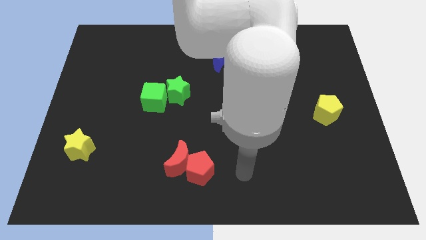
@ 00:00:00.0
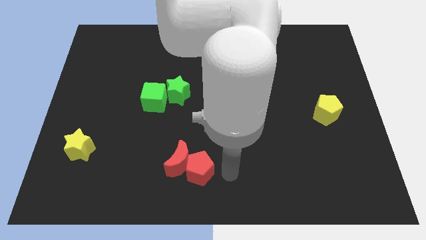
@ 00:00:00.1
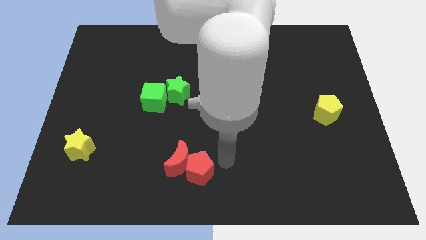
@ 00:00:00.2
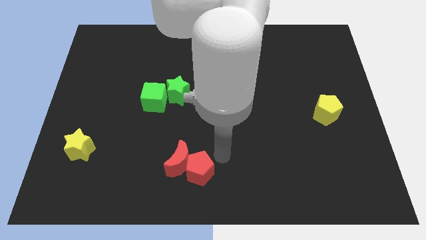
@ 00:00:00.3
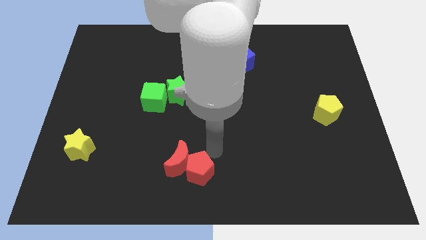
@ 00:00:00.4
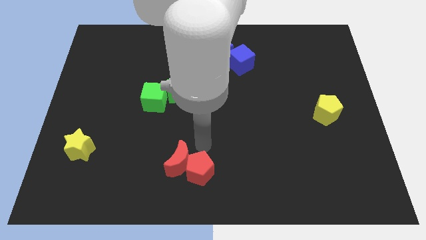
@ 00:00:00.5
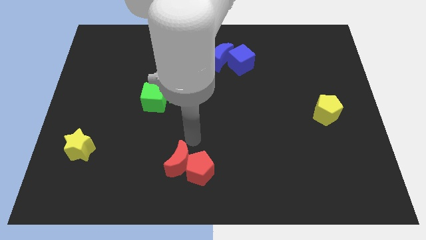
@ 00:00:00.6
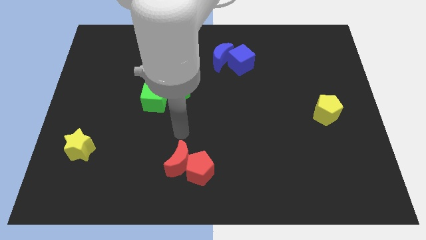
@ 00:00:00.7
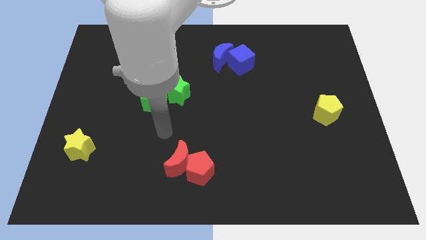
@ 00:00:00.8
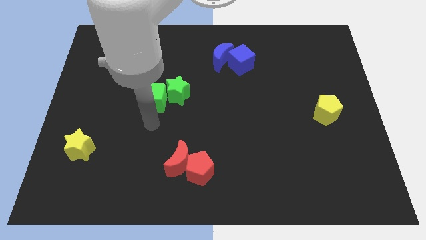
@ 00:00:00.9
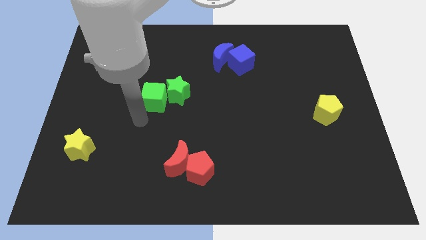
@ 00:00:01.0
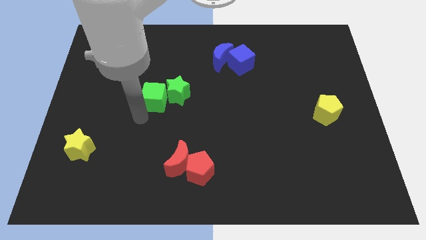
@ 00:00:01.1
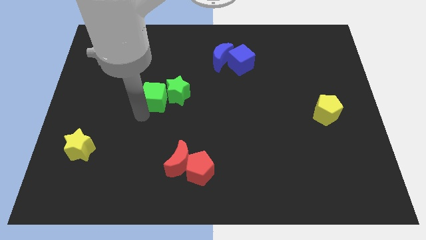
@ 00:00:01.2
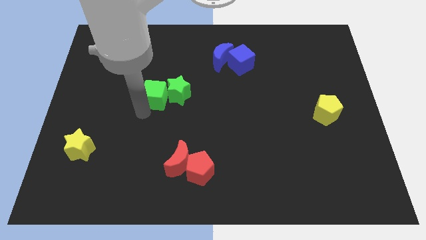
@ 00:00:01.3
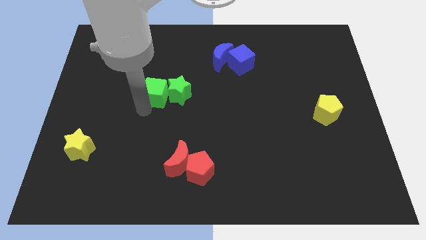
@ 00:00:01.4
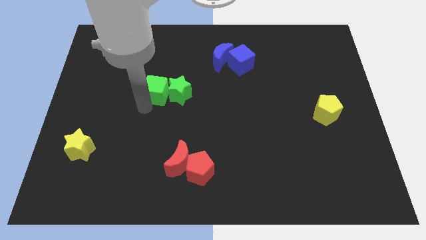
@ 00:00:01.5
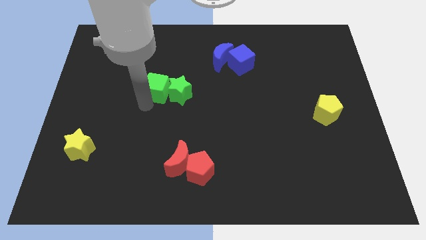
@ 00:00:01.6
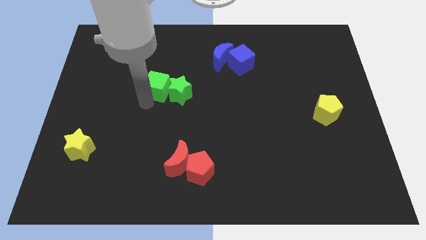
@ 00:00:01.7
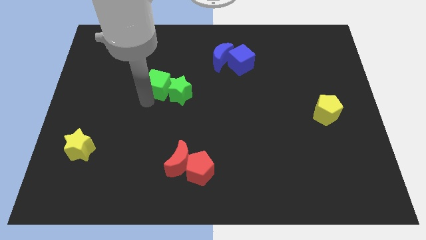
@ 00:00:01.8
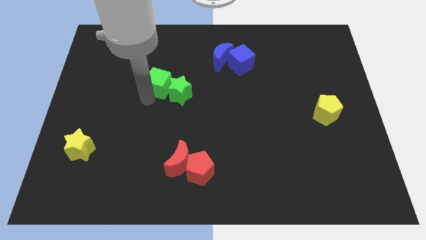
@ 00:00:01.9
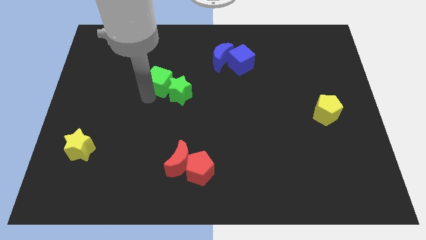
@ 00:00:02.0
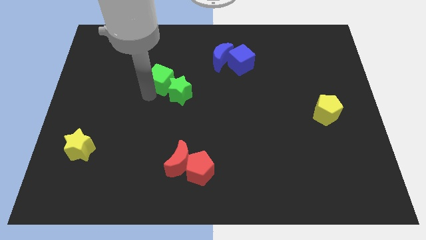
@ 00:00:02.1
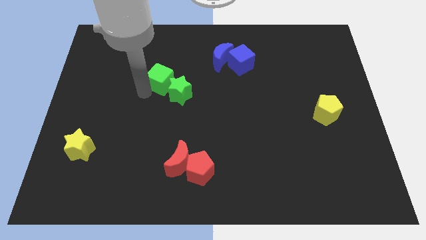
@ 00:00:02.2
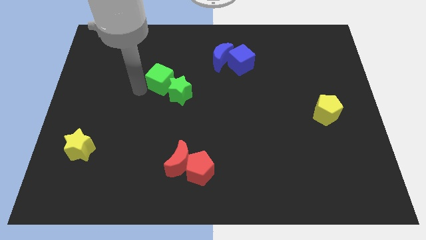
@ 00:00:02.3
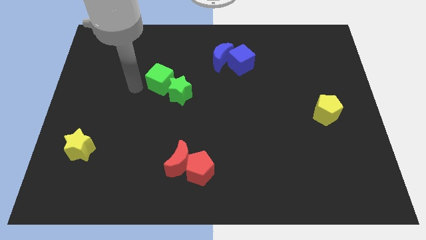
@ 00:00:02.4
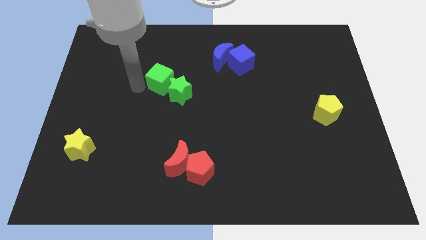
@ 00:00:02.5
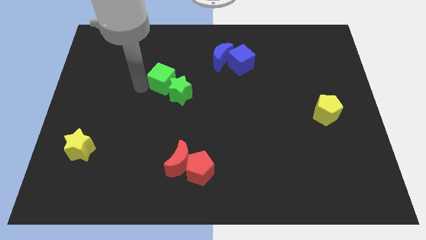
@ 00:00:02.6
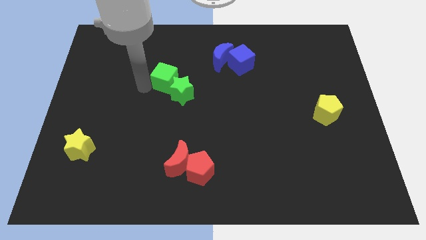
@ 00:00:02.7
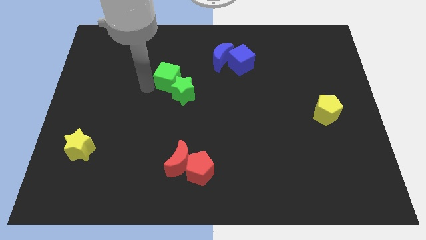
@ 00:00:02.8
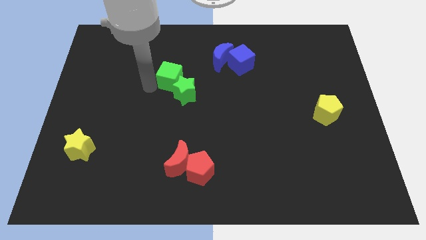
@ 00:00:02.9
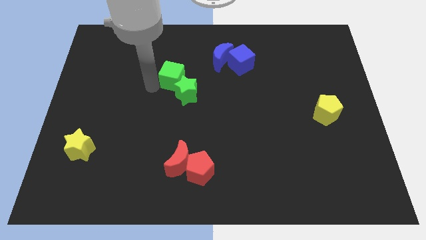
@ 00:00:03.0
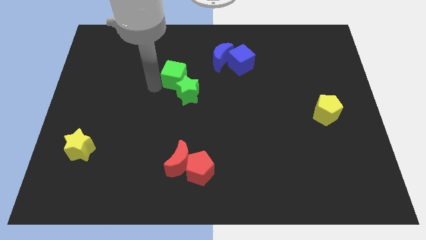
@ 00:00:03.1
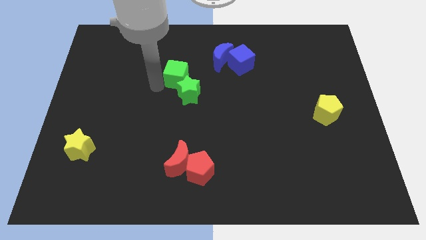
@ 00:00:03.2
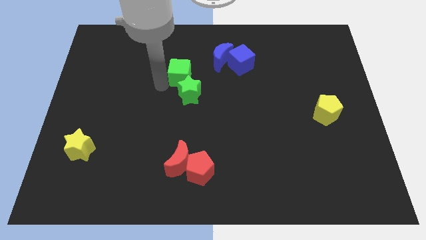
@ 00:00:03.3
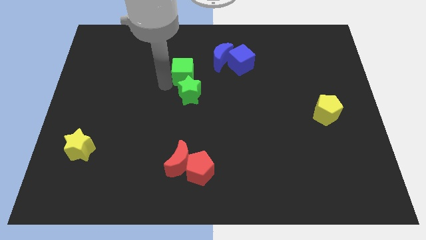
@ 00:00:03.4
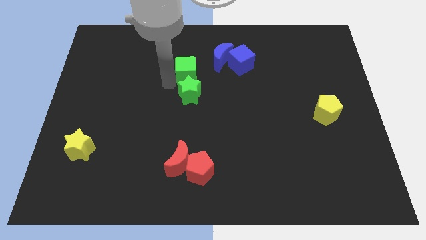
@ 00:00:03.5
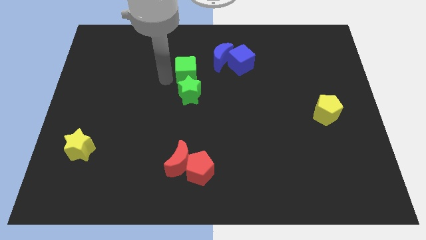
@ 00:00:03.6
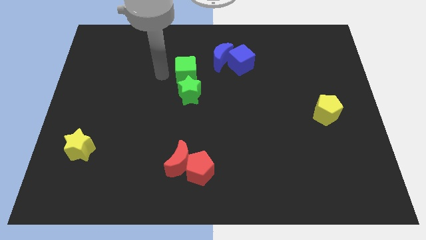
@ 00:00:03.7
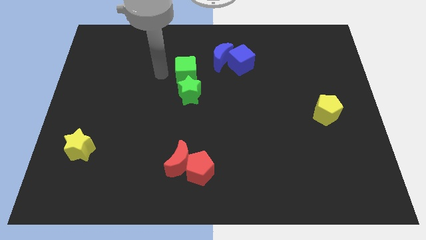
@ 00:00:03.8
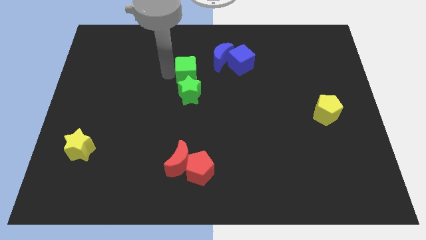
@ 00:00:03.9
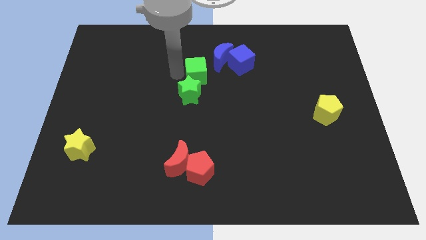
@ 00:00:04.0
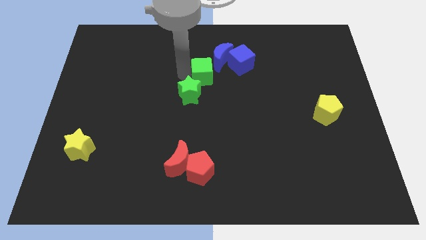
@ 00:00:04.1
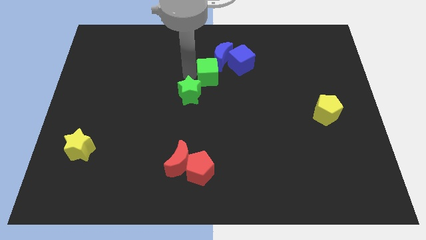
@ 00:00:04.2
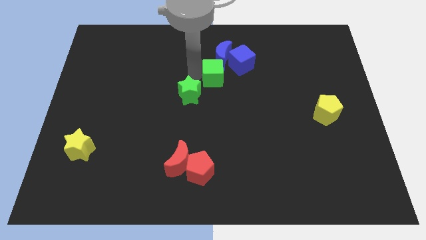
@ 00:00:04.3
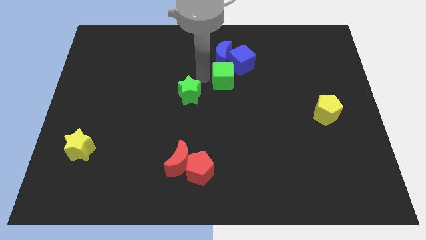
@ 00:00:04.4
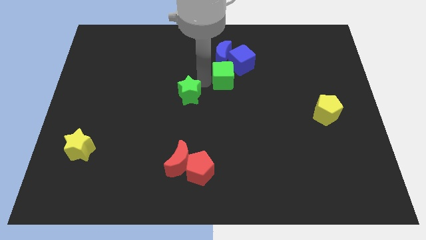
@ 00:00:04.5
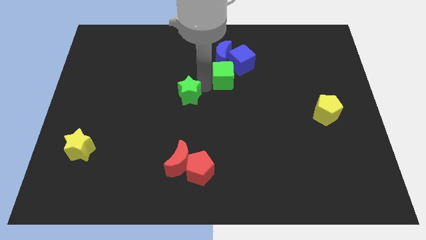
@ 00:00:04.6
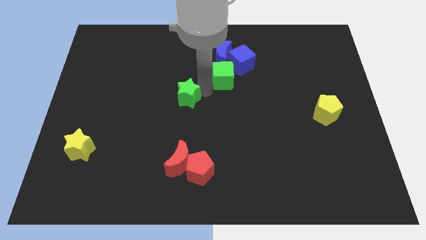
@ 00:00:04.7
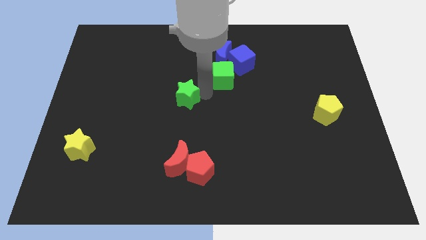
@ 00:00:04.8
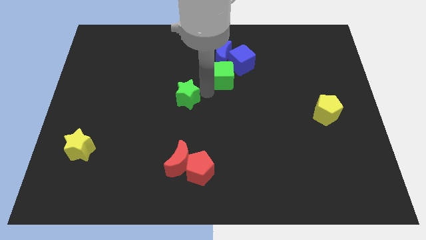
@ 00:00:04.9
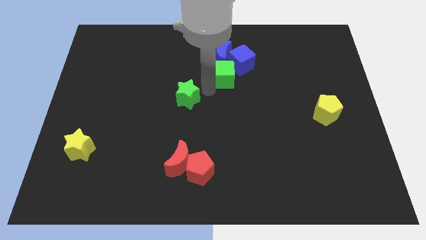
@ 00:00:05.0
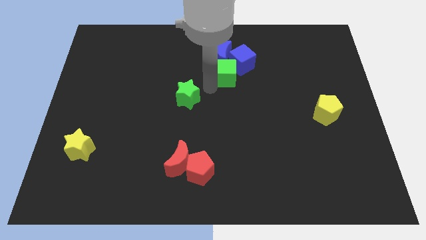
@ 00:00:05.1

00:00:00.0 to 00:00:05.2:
put the green cube to the blue cube

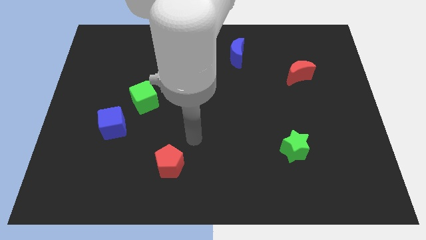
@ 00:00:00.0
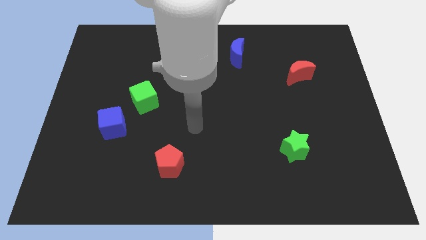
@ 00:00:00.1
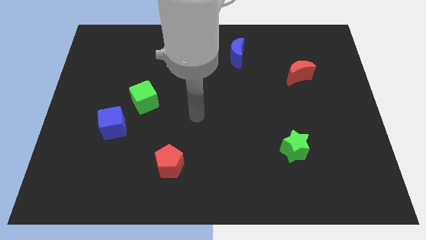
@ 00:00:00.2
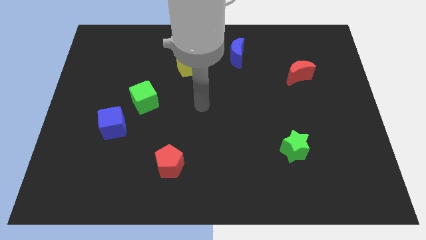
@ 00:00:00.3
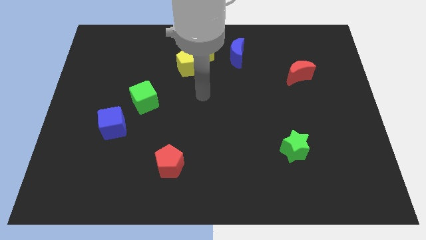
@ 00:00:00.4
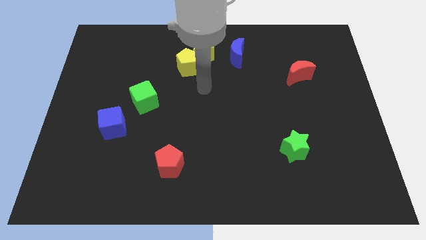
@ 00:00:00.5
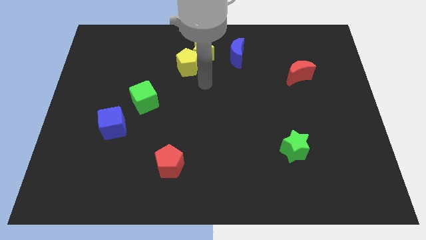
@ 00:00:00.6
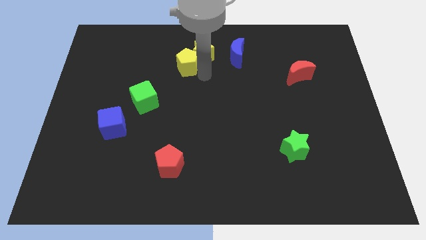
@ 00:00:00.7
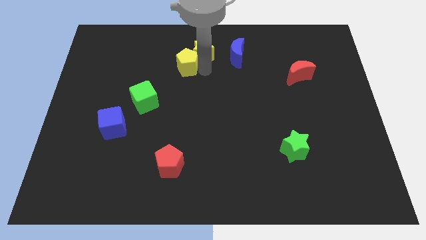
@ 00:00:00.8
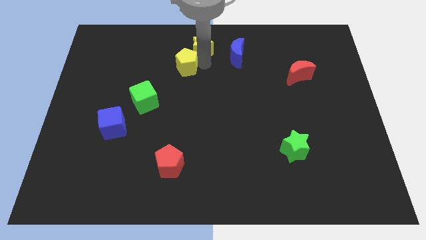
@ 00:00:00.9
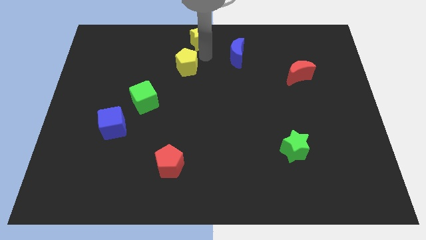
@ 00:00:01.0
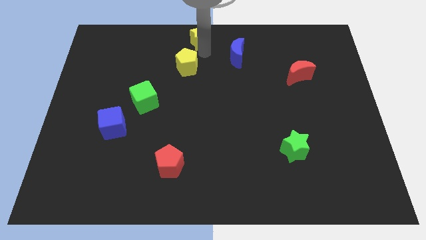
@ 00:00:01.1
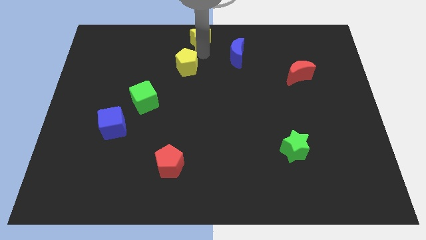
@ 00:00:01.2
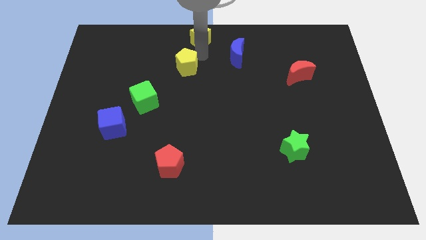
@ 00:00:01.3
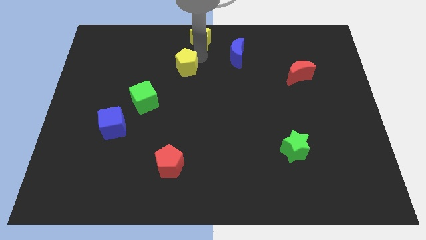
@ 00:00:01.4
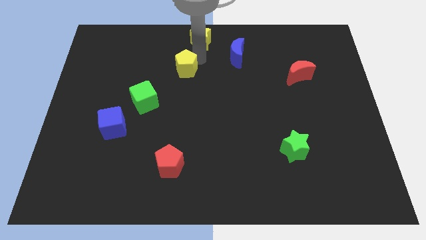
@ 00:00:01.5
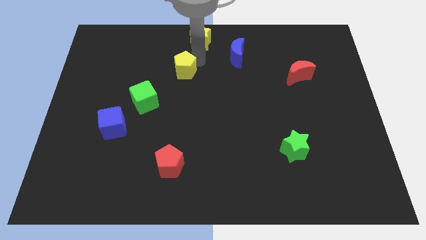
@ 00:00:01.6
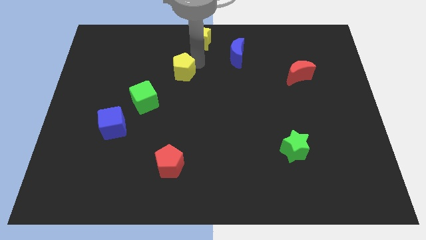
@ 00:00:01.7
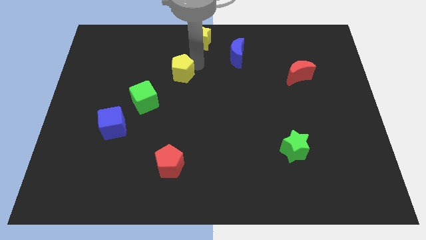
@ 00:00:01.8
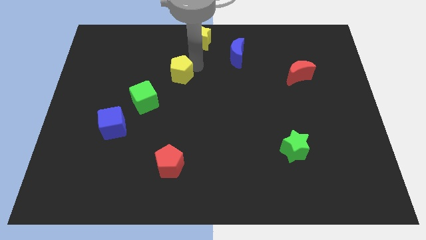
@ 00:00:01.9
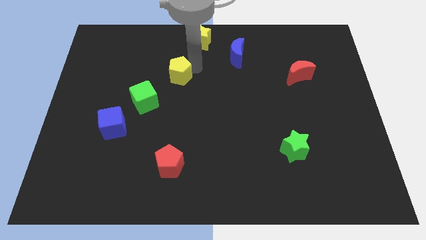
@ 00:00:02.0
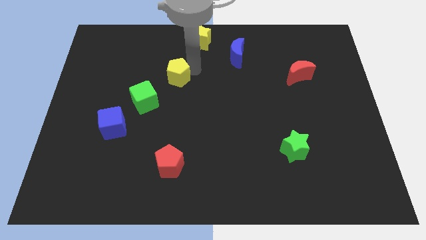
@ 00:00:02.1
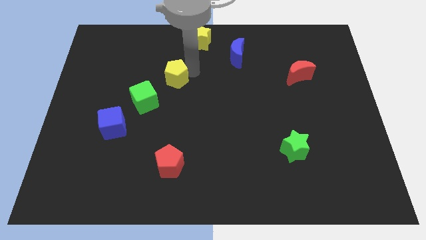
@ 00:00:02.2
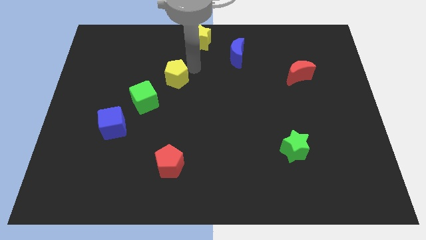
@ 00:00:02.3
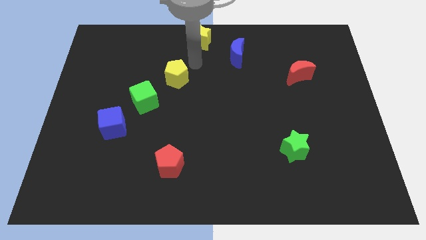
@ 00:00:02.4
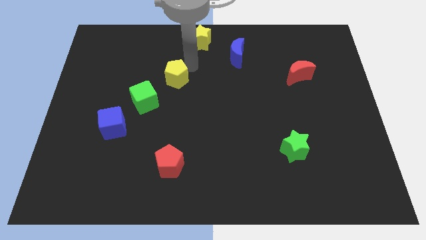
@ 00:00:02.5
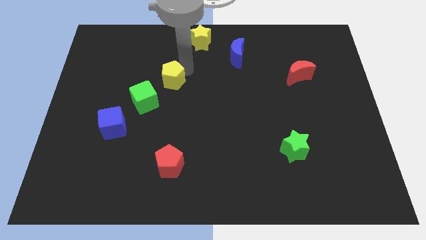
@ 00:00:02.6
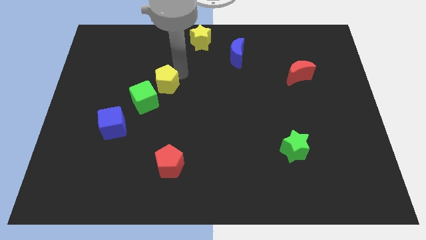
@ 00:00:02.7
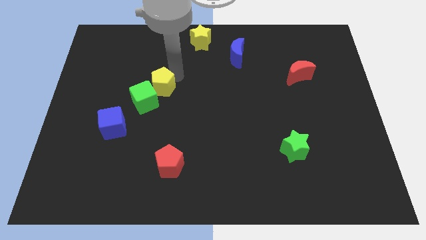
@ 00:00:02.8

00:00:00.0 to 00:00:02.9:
push the yellow pentagon close to the green cube
